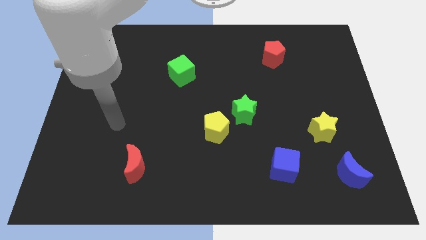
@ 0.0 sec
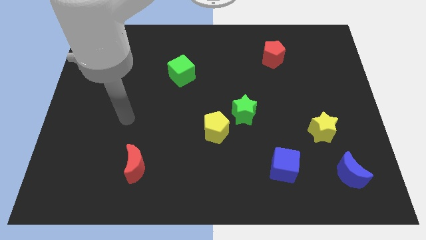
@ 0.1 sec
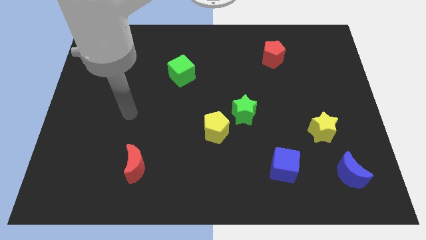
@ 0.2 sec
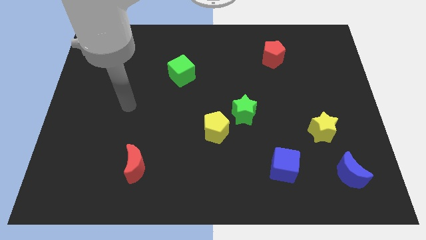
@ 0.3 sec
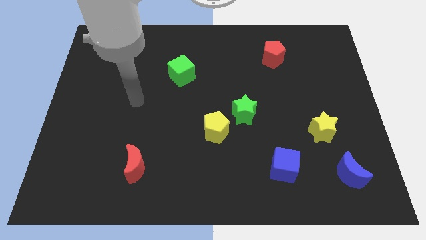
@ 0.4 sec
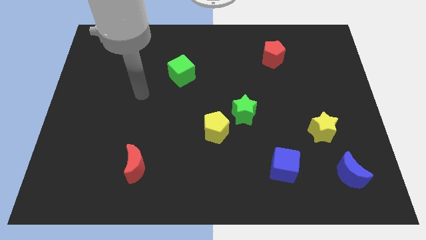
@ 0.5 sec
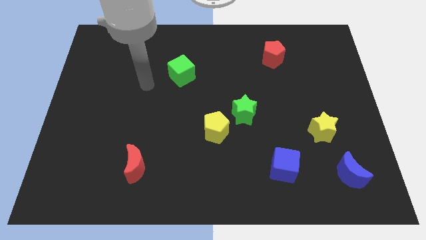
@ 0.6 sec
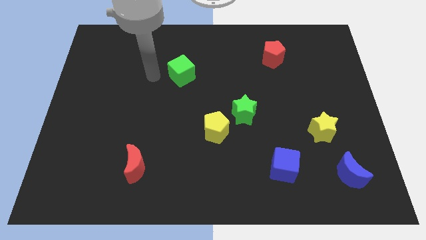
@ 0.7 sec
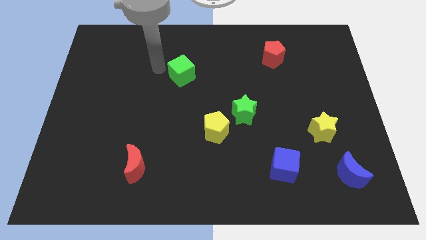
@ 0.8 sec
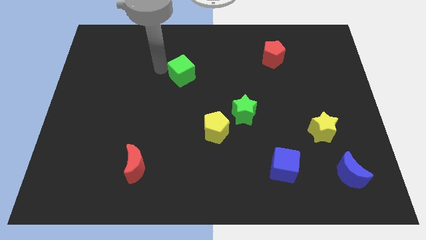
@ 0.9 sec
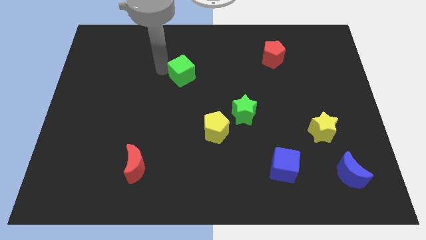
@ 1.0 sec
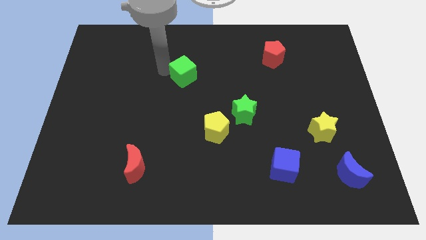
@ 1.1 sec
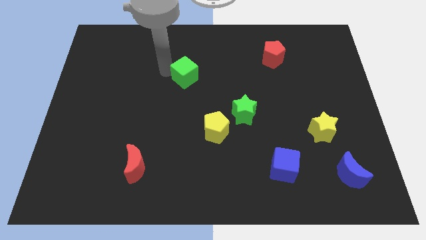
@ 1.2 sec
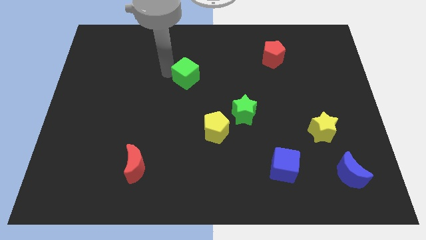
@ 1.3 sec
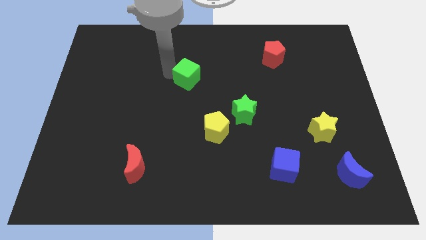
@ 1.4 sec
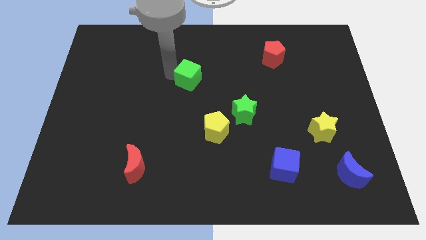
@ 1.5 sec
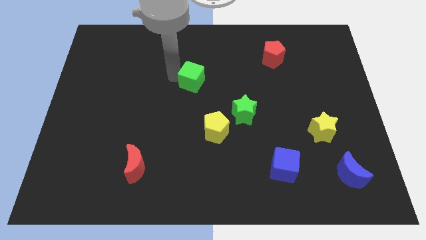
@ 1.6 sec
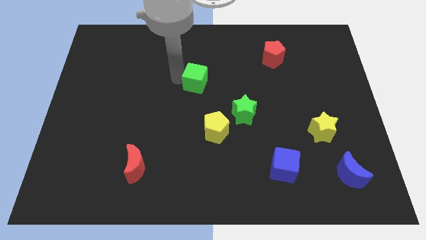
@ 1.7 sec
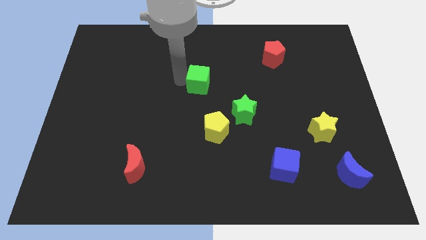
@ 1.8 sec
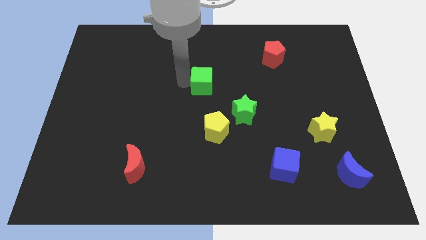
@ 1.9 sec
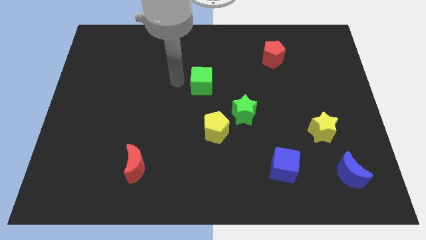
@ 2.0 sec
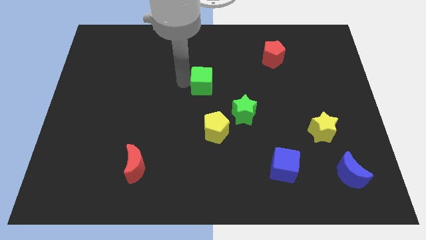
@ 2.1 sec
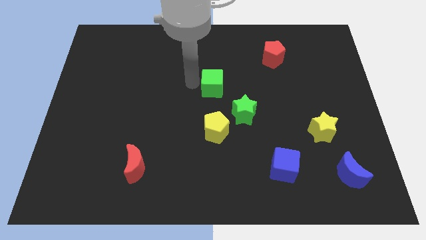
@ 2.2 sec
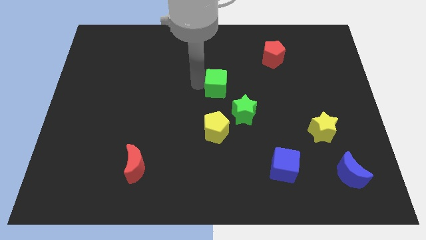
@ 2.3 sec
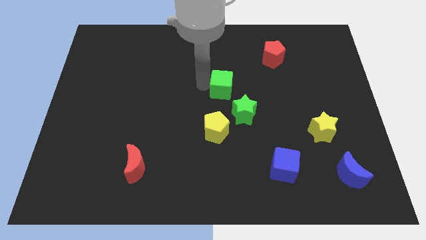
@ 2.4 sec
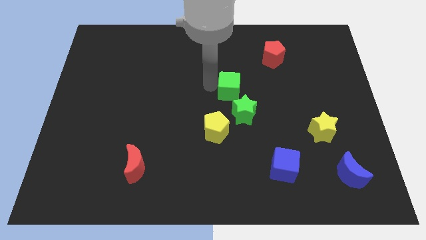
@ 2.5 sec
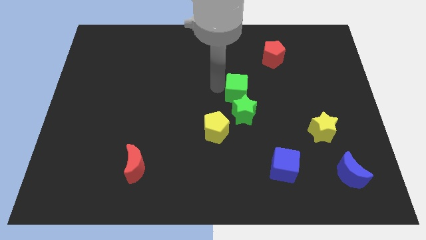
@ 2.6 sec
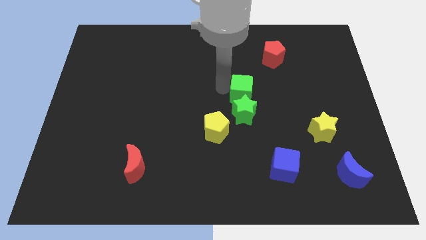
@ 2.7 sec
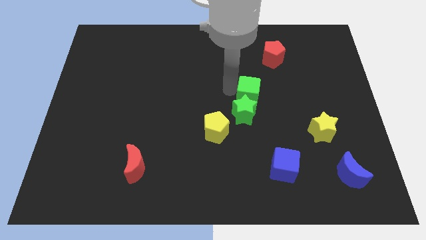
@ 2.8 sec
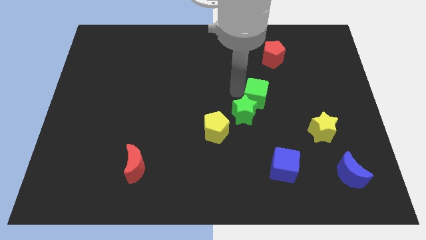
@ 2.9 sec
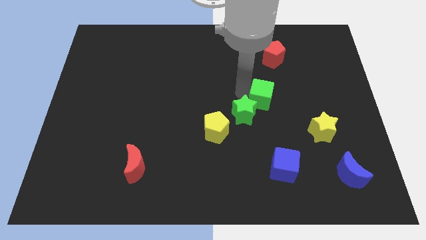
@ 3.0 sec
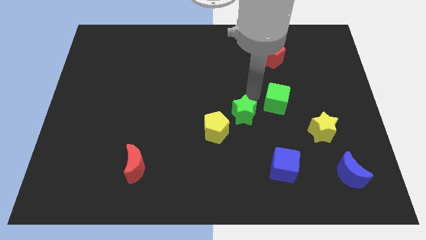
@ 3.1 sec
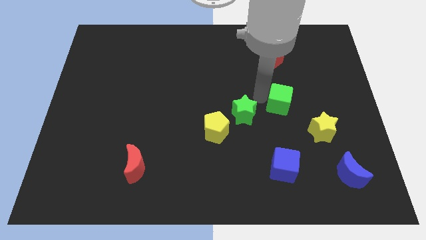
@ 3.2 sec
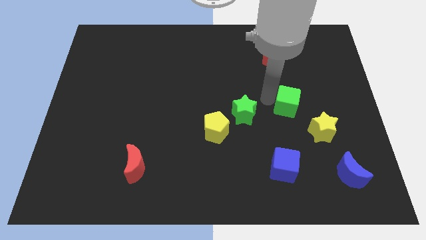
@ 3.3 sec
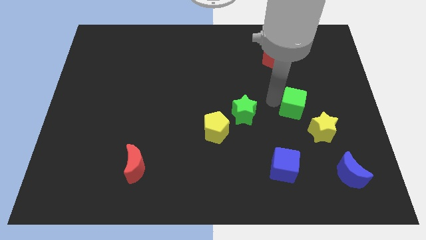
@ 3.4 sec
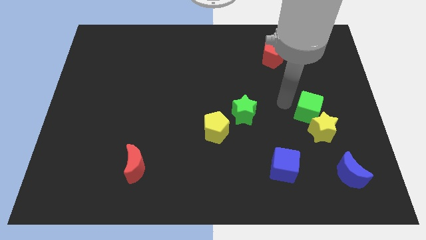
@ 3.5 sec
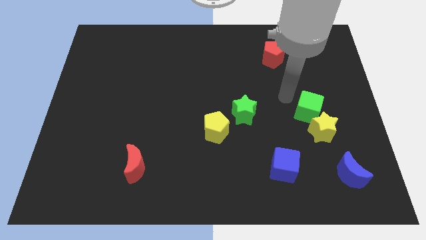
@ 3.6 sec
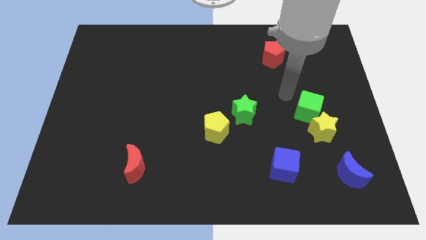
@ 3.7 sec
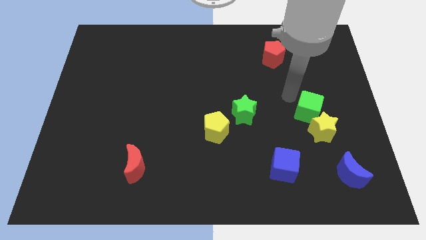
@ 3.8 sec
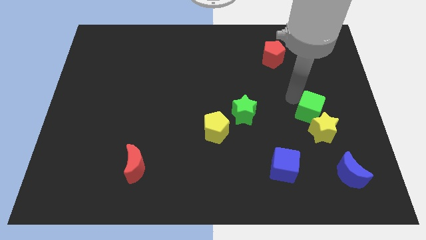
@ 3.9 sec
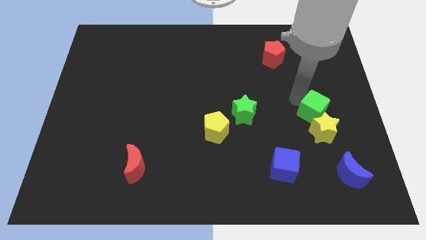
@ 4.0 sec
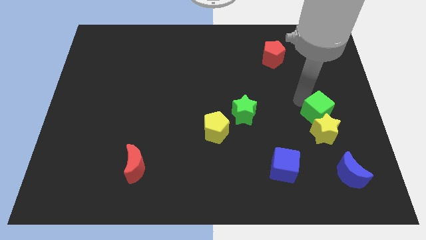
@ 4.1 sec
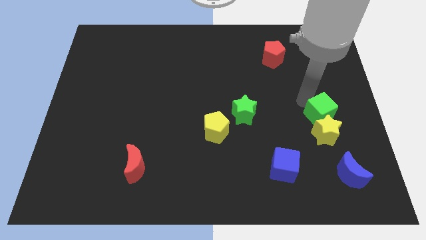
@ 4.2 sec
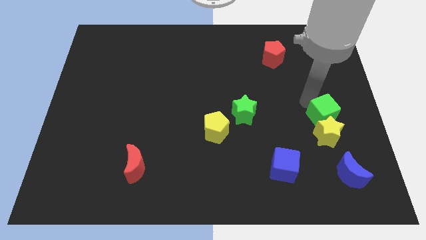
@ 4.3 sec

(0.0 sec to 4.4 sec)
slide the green cube to the top side of the blue moon

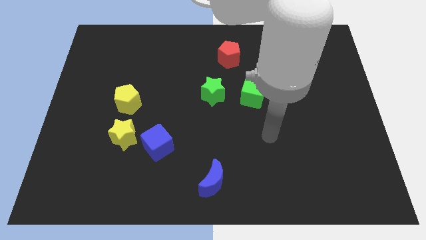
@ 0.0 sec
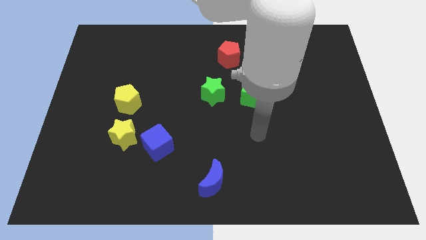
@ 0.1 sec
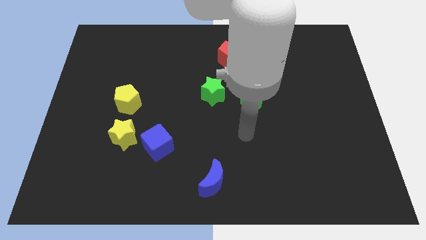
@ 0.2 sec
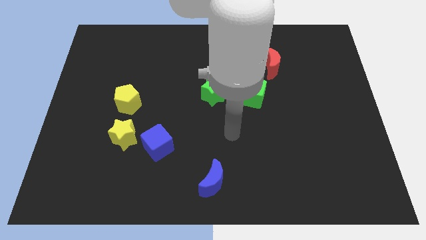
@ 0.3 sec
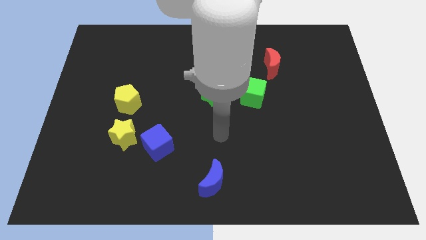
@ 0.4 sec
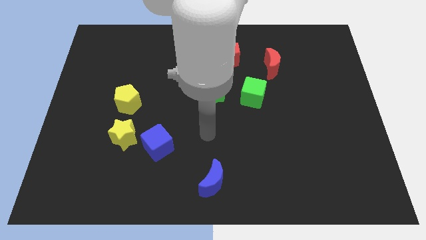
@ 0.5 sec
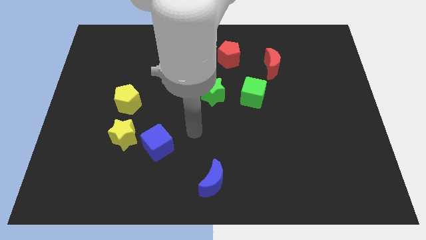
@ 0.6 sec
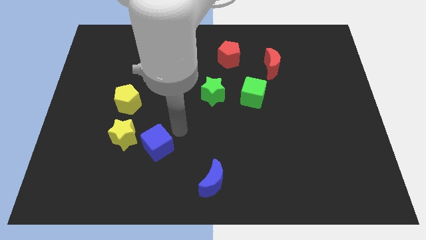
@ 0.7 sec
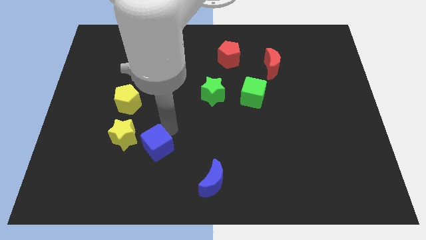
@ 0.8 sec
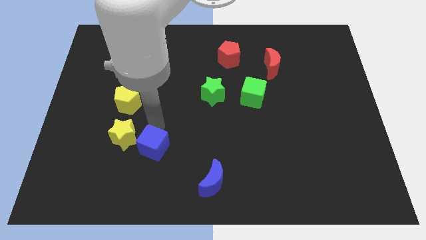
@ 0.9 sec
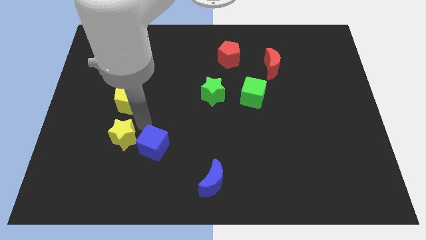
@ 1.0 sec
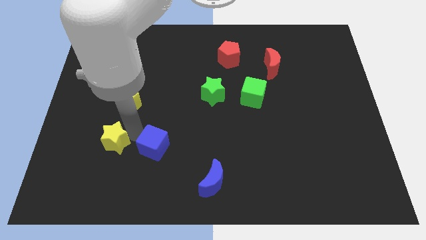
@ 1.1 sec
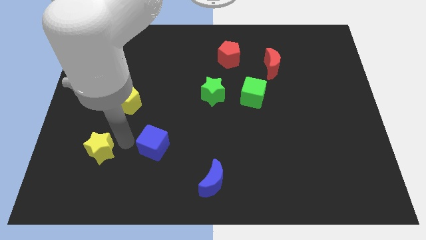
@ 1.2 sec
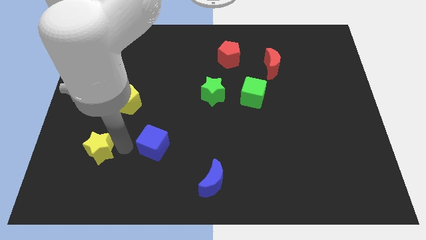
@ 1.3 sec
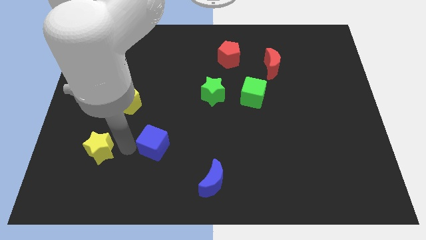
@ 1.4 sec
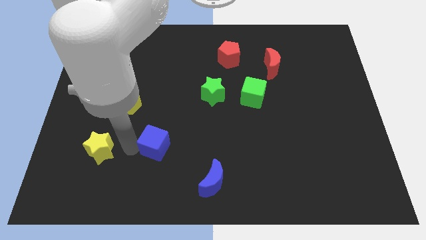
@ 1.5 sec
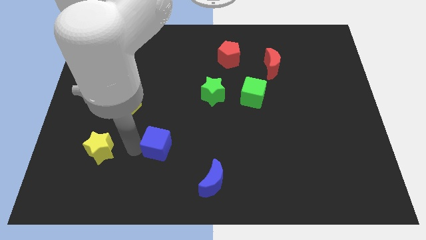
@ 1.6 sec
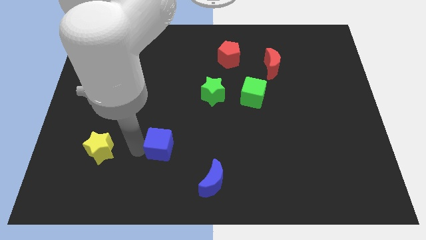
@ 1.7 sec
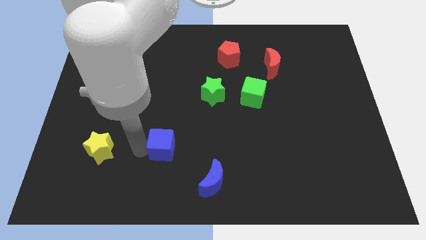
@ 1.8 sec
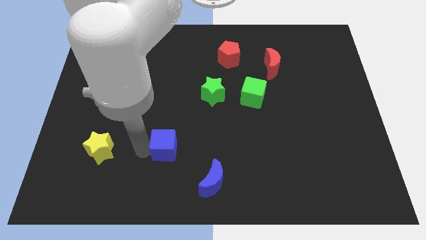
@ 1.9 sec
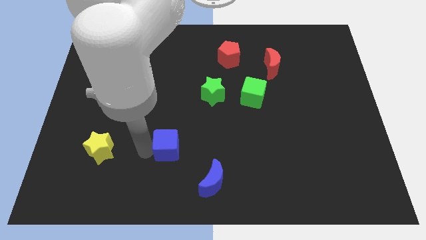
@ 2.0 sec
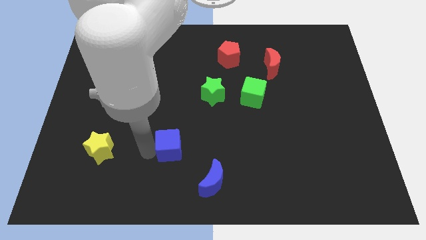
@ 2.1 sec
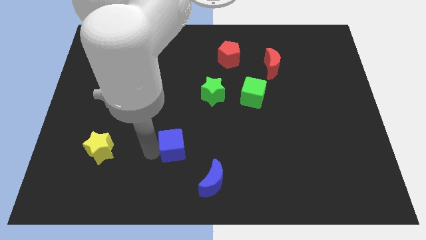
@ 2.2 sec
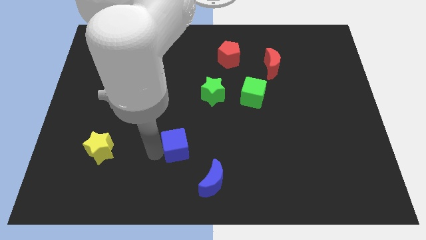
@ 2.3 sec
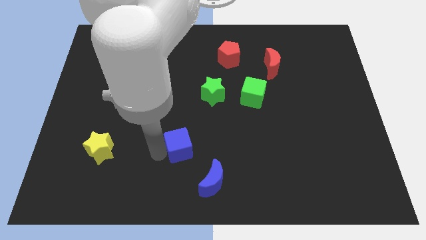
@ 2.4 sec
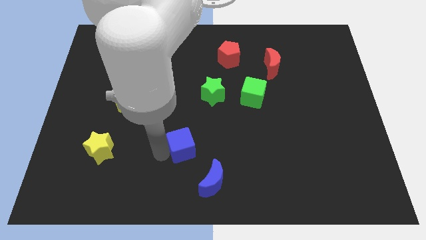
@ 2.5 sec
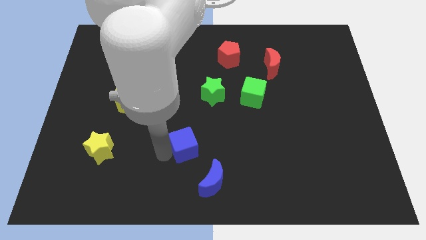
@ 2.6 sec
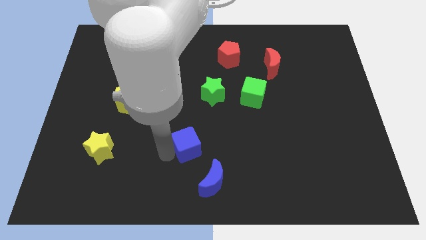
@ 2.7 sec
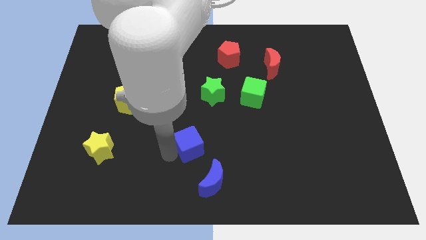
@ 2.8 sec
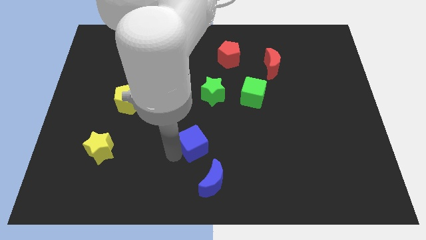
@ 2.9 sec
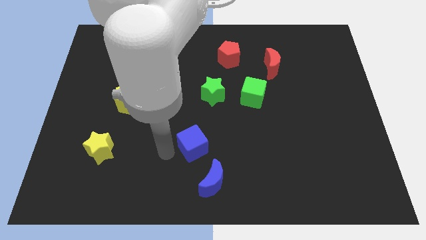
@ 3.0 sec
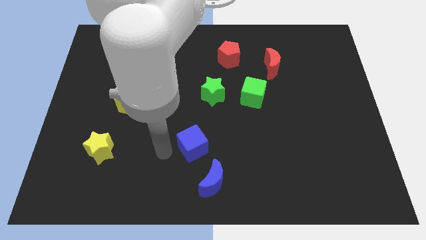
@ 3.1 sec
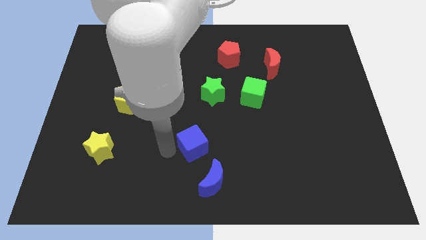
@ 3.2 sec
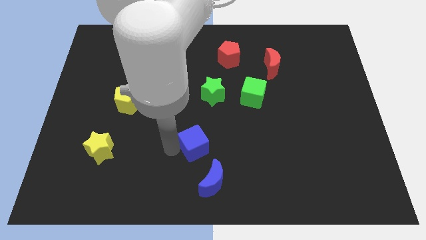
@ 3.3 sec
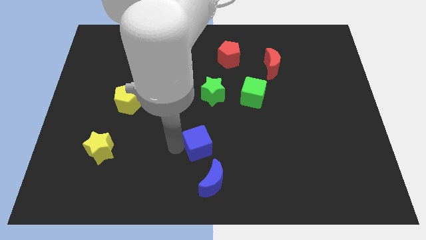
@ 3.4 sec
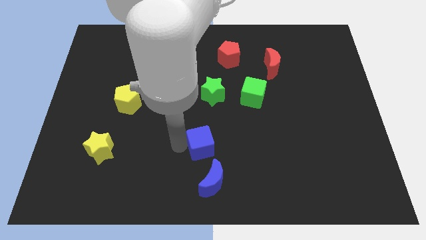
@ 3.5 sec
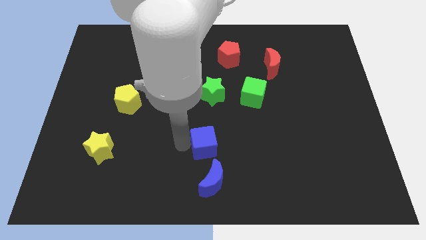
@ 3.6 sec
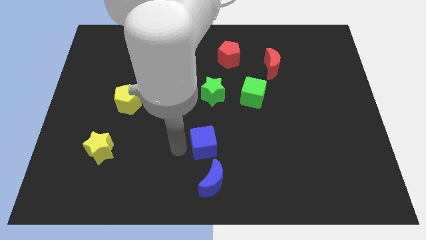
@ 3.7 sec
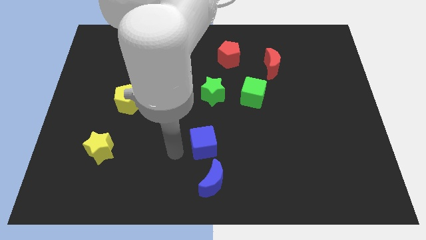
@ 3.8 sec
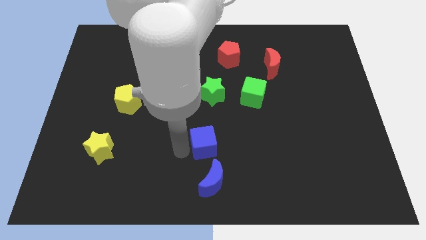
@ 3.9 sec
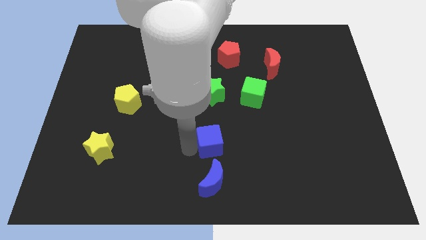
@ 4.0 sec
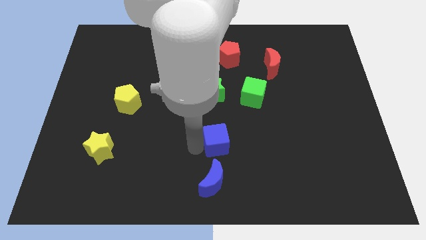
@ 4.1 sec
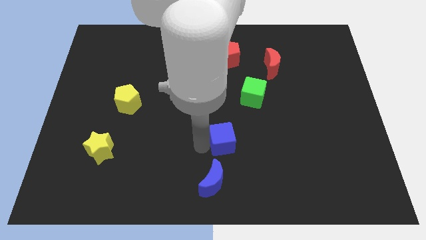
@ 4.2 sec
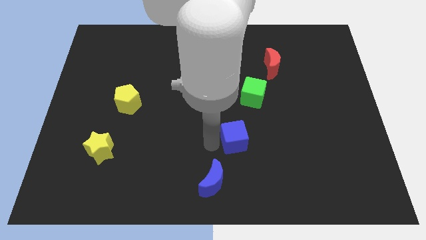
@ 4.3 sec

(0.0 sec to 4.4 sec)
put the blue cube to the bottom of the green cube
